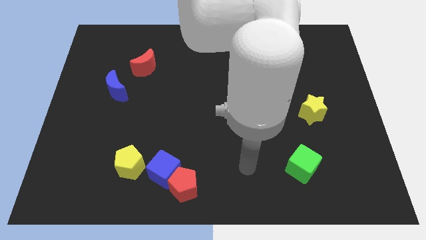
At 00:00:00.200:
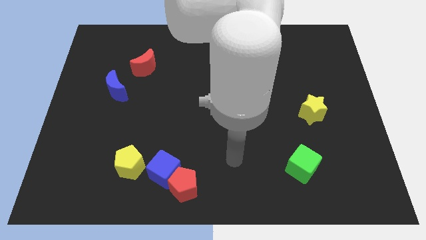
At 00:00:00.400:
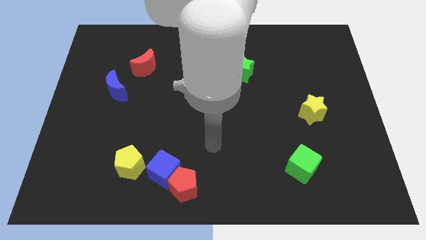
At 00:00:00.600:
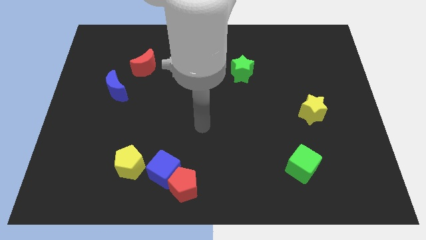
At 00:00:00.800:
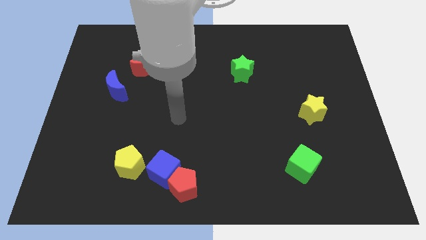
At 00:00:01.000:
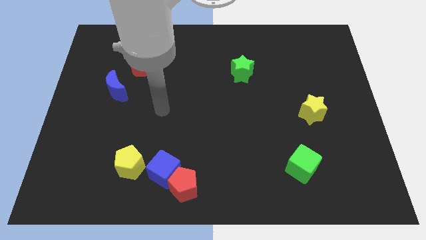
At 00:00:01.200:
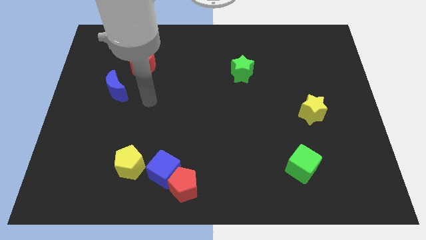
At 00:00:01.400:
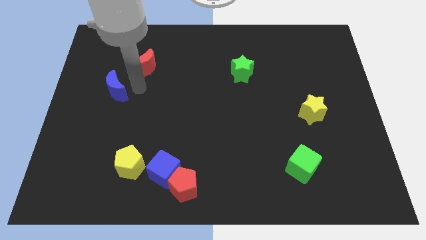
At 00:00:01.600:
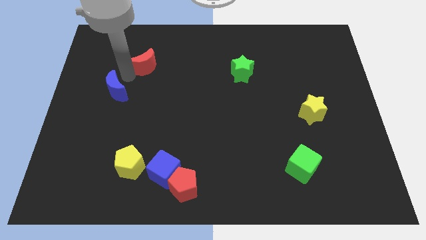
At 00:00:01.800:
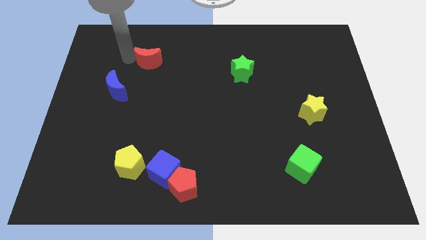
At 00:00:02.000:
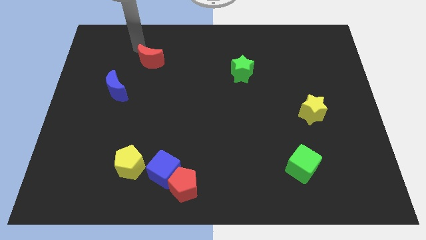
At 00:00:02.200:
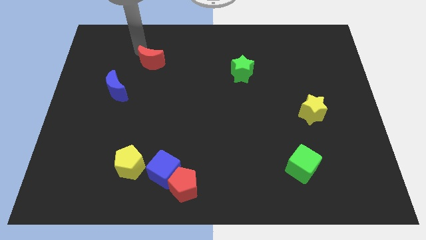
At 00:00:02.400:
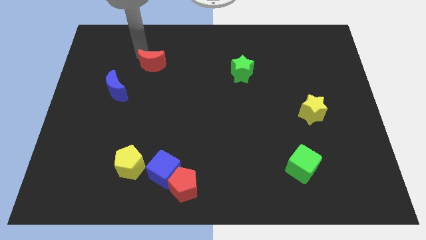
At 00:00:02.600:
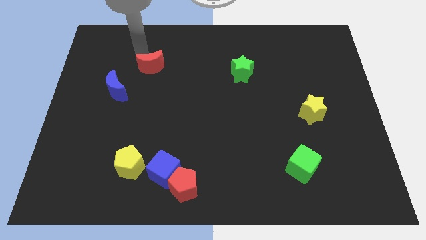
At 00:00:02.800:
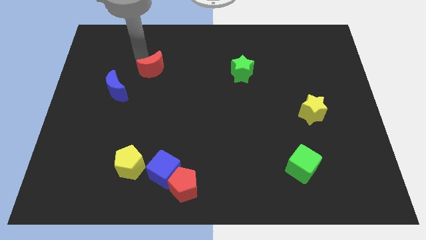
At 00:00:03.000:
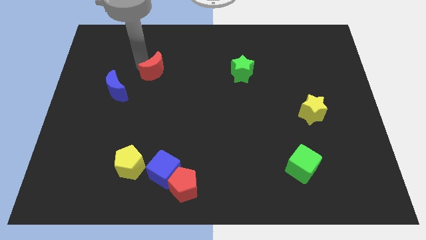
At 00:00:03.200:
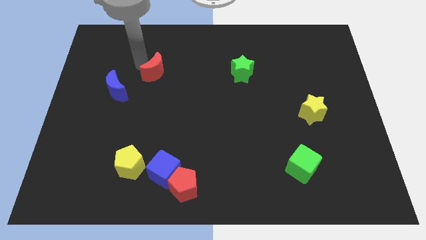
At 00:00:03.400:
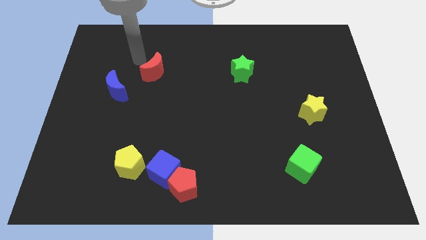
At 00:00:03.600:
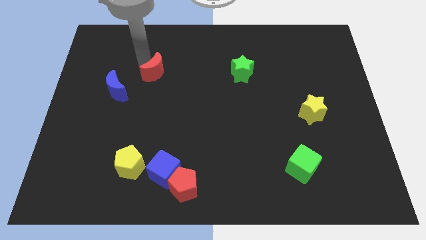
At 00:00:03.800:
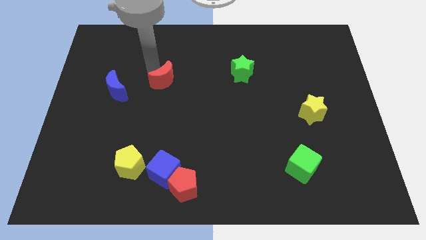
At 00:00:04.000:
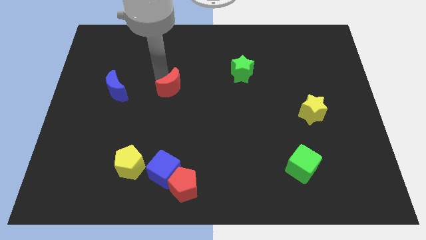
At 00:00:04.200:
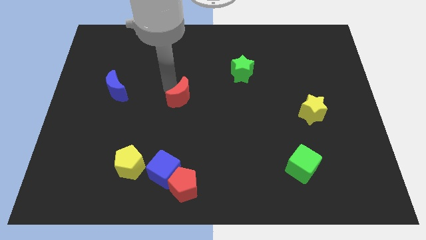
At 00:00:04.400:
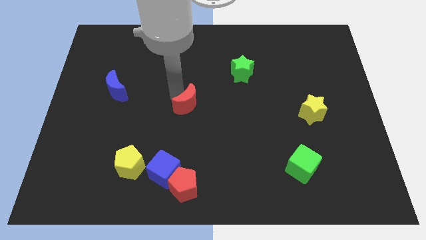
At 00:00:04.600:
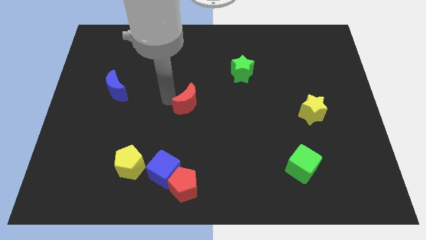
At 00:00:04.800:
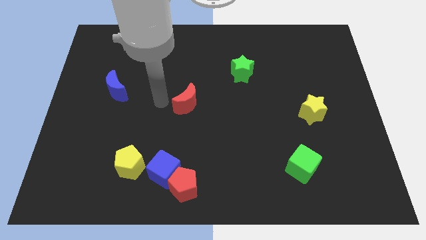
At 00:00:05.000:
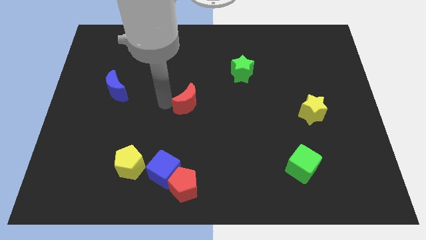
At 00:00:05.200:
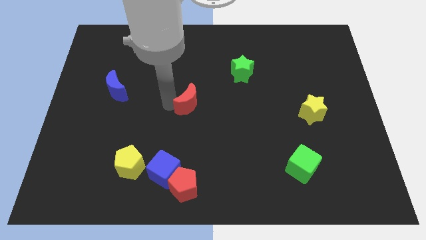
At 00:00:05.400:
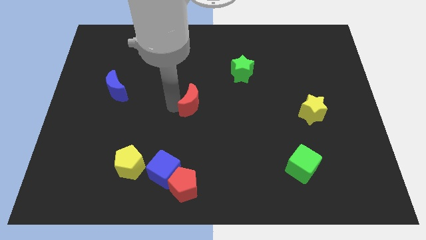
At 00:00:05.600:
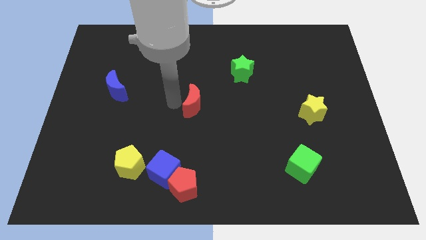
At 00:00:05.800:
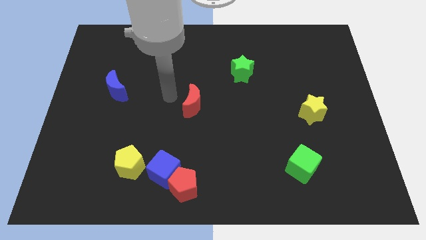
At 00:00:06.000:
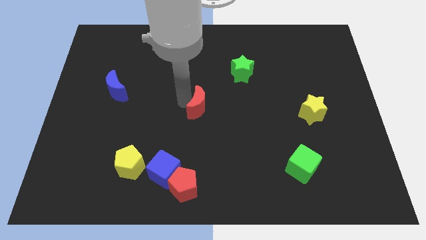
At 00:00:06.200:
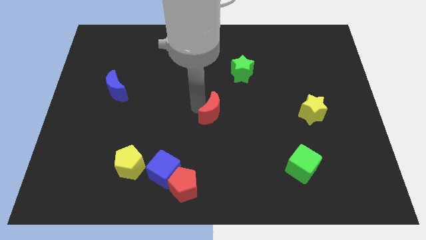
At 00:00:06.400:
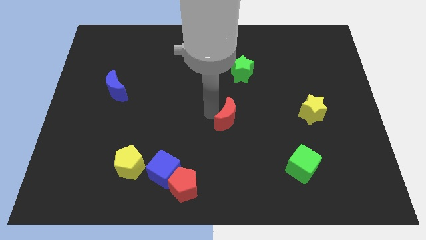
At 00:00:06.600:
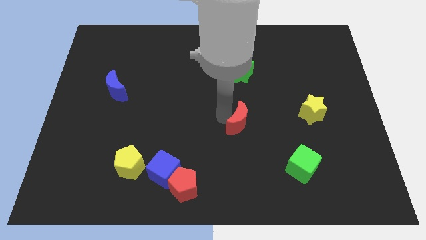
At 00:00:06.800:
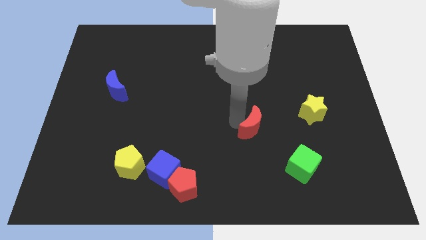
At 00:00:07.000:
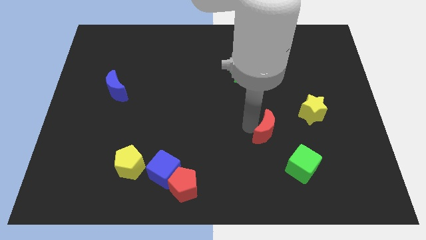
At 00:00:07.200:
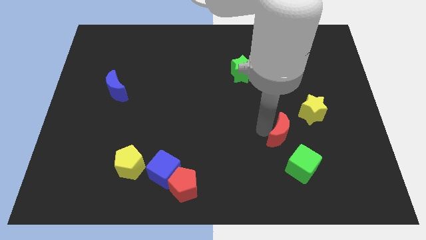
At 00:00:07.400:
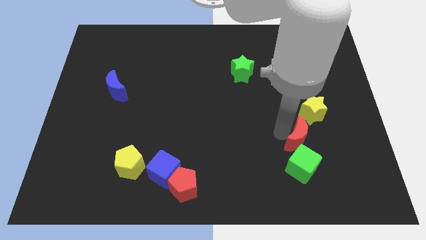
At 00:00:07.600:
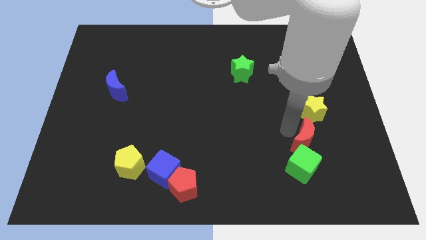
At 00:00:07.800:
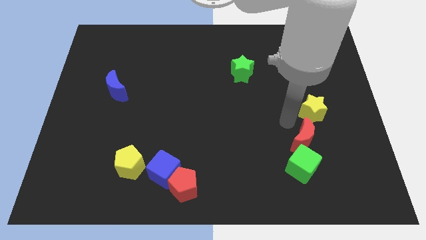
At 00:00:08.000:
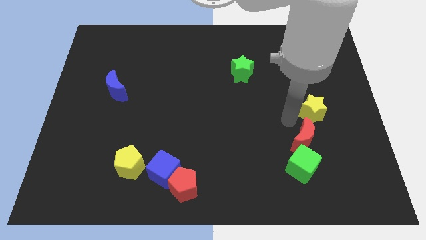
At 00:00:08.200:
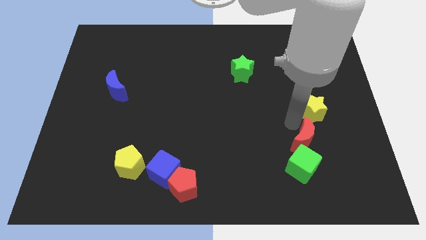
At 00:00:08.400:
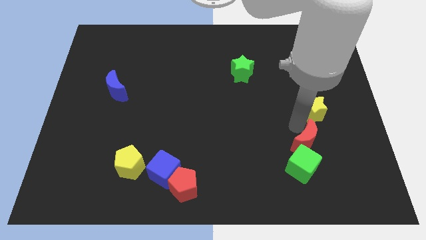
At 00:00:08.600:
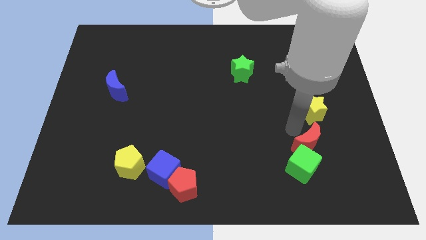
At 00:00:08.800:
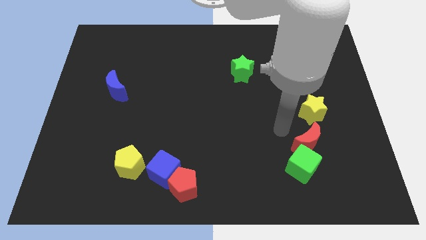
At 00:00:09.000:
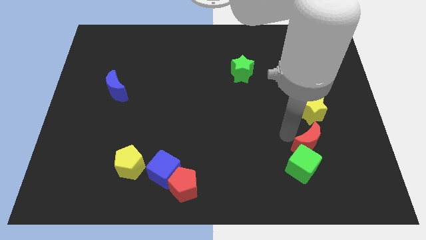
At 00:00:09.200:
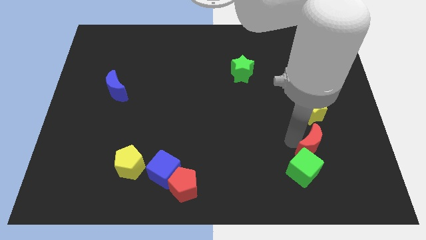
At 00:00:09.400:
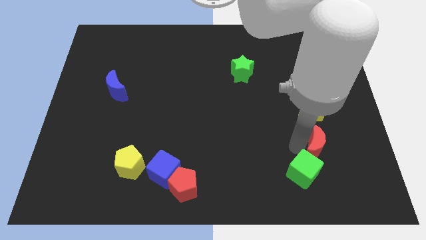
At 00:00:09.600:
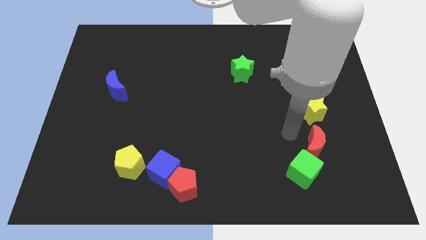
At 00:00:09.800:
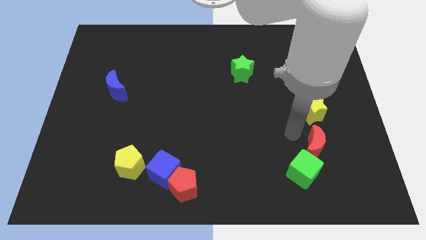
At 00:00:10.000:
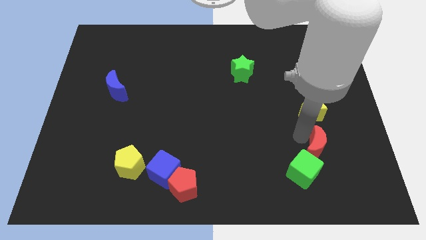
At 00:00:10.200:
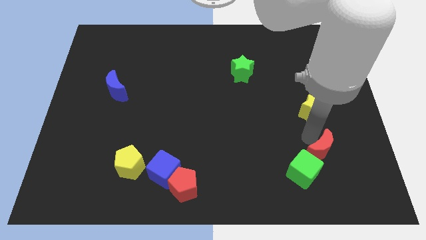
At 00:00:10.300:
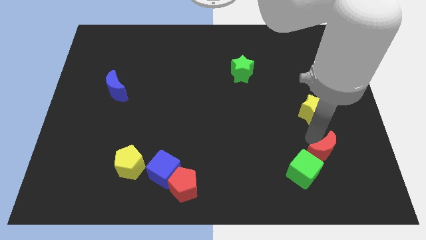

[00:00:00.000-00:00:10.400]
put the red moon to the right side of the green cube

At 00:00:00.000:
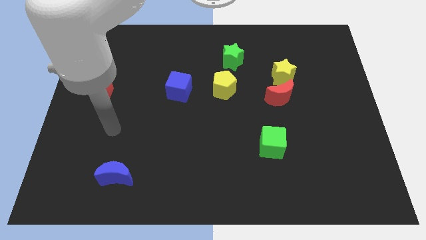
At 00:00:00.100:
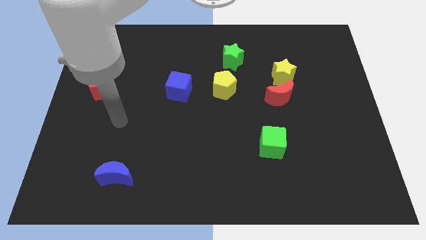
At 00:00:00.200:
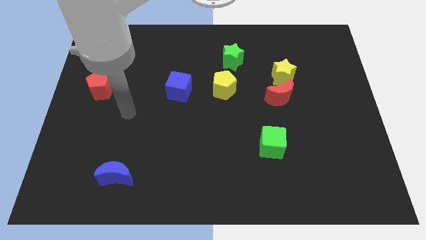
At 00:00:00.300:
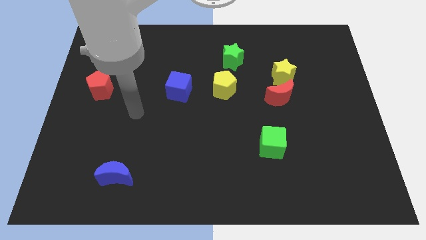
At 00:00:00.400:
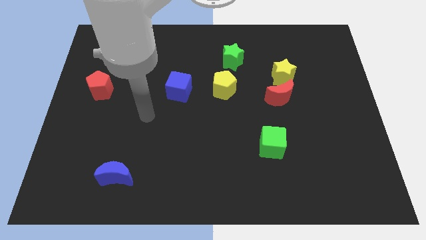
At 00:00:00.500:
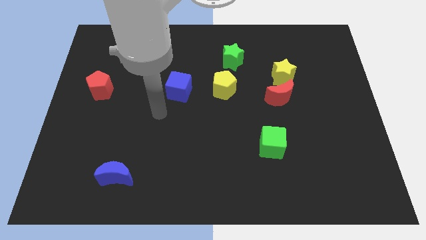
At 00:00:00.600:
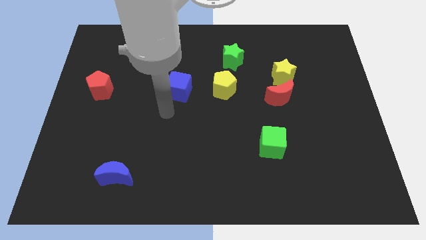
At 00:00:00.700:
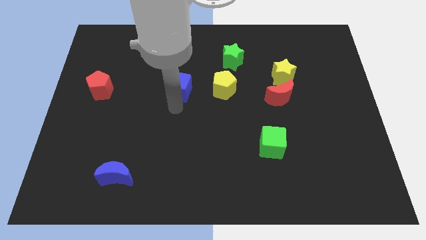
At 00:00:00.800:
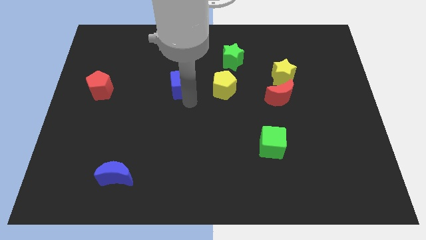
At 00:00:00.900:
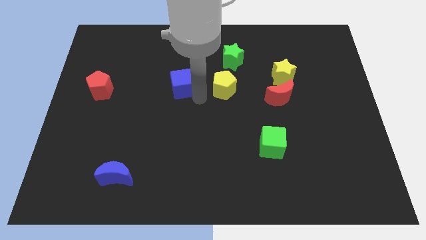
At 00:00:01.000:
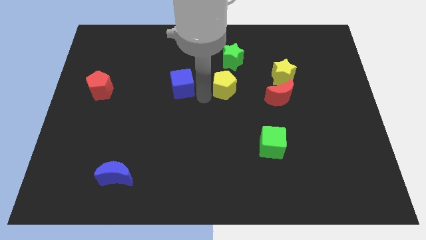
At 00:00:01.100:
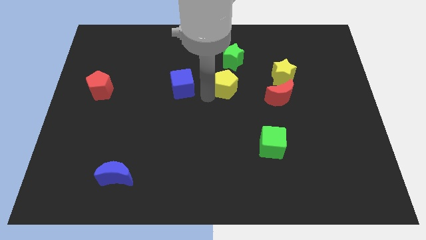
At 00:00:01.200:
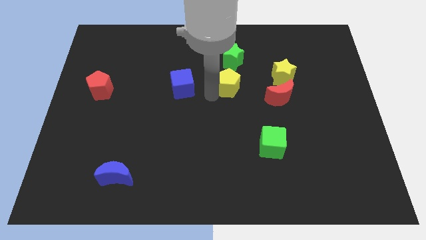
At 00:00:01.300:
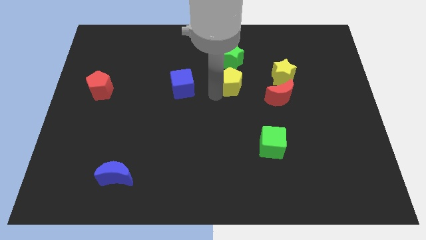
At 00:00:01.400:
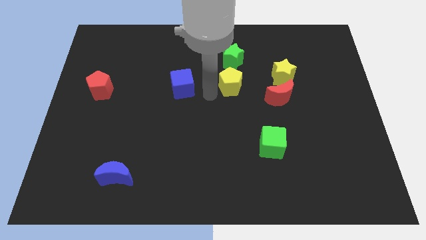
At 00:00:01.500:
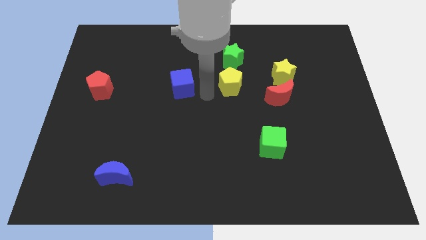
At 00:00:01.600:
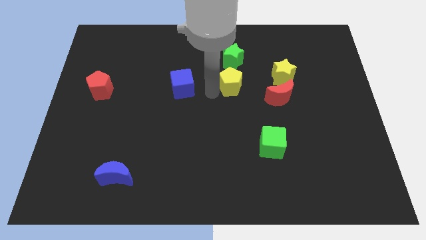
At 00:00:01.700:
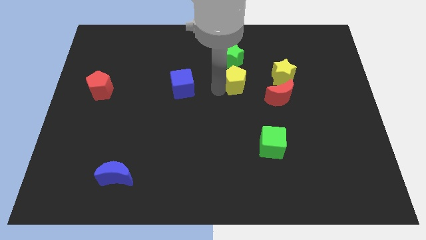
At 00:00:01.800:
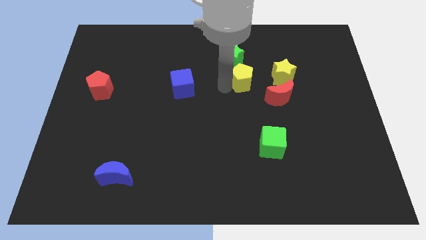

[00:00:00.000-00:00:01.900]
put the yellow pentagon to the bottom right side of the green star

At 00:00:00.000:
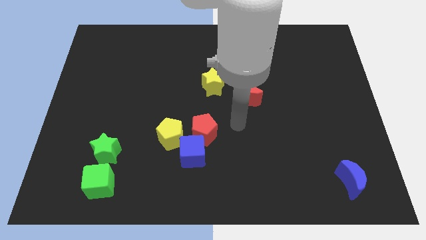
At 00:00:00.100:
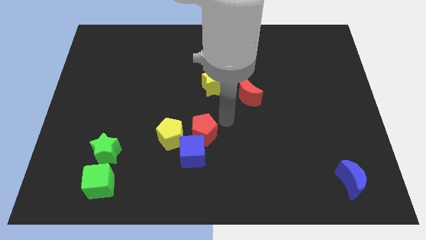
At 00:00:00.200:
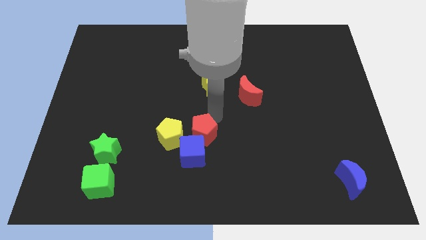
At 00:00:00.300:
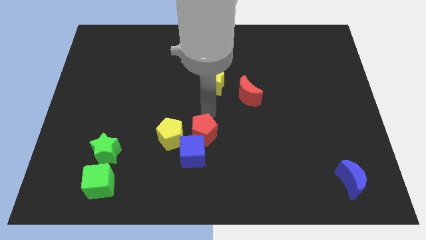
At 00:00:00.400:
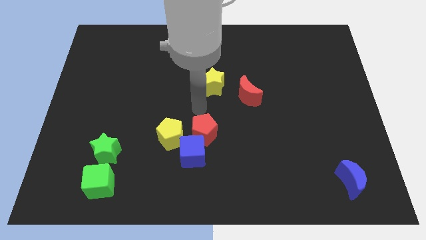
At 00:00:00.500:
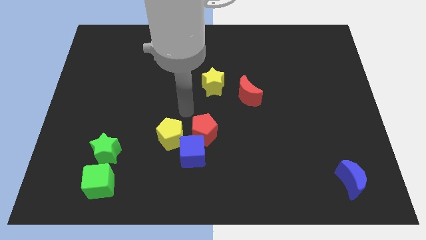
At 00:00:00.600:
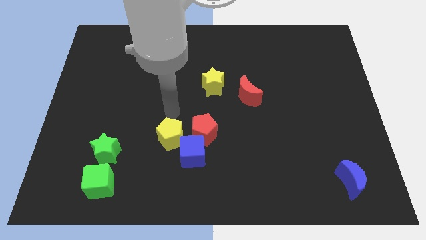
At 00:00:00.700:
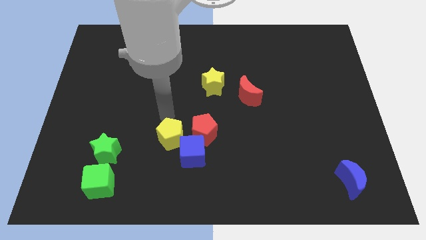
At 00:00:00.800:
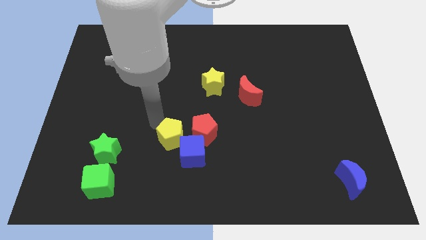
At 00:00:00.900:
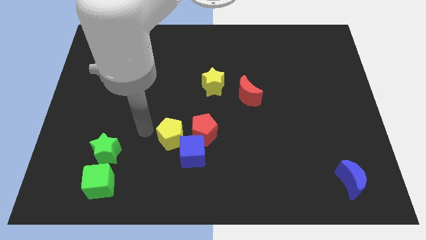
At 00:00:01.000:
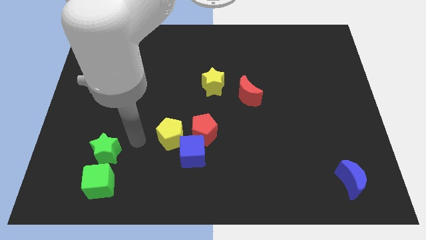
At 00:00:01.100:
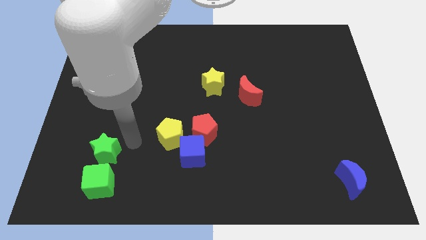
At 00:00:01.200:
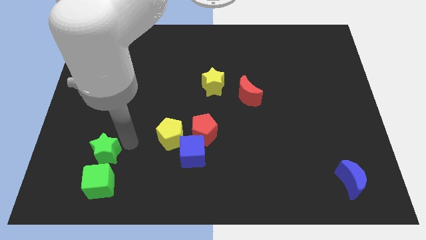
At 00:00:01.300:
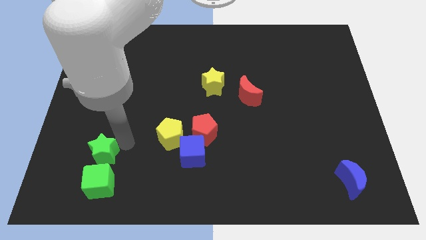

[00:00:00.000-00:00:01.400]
put the green star to the top left of the green cube
